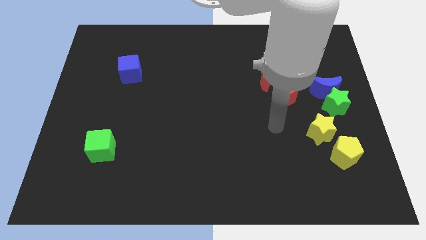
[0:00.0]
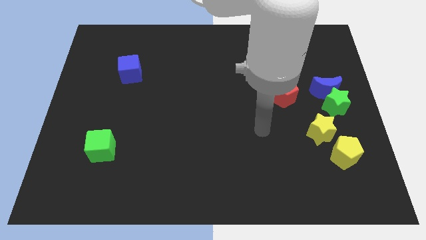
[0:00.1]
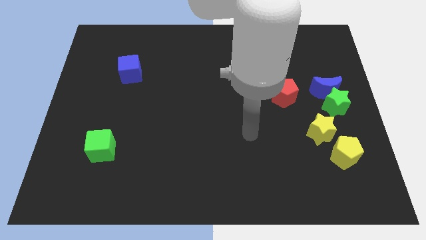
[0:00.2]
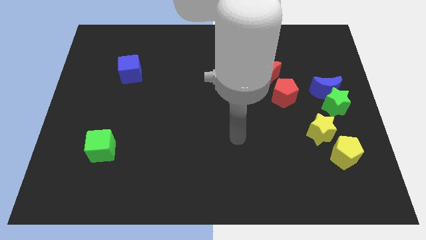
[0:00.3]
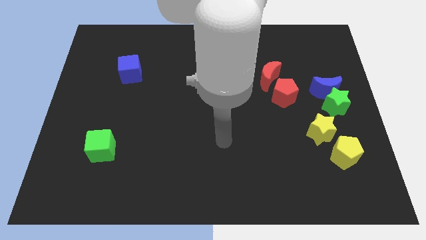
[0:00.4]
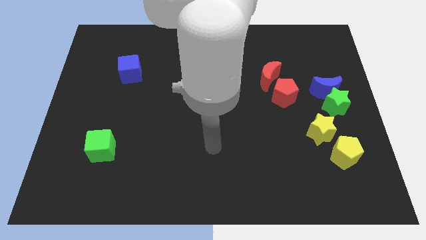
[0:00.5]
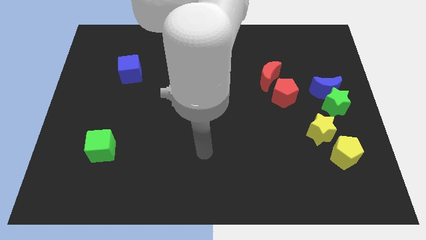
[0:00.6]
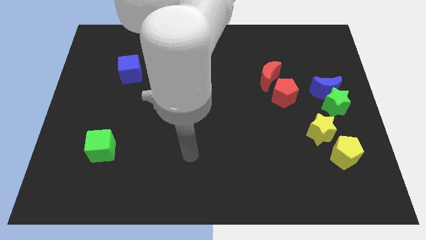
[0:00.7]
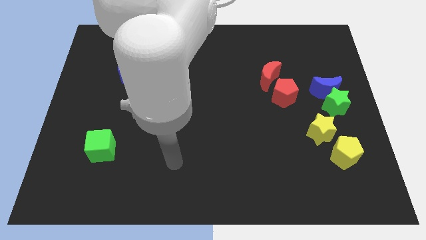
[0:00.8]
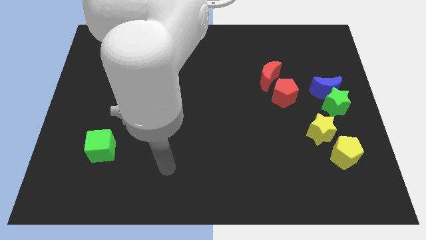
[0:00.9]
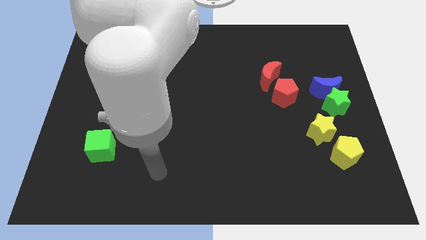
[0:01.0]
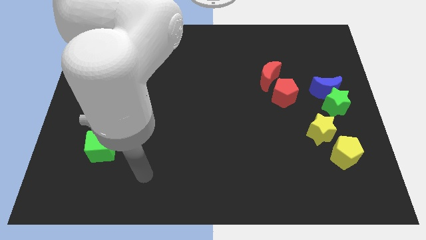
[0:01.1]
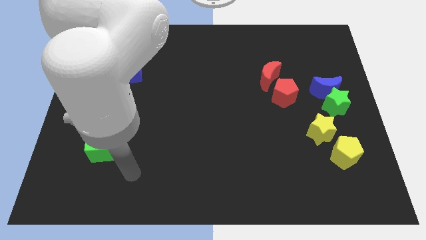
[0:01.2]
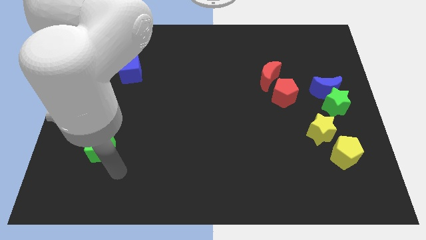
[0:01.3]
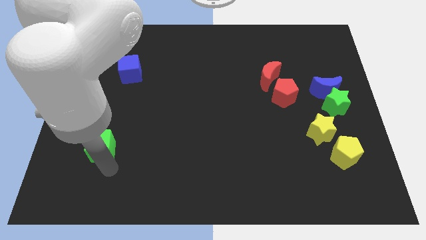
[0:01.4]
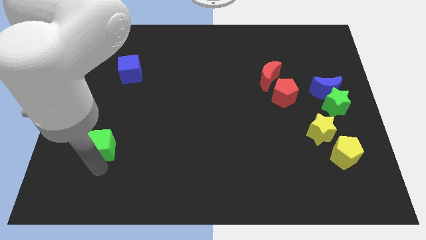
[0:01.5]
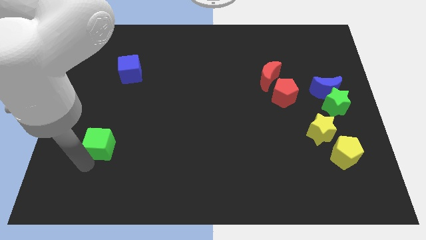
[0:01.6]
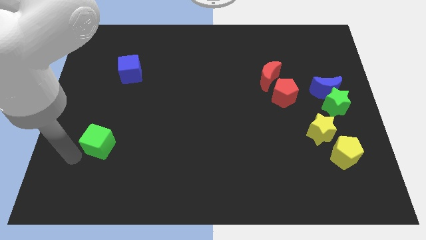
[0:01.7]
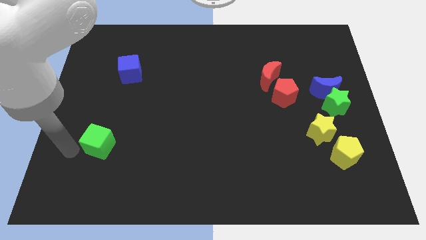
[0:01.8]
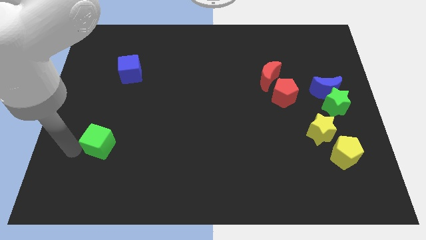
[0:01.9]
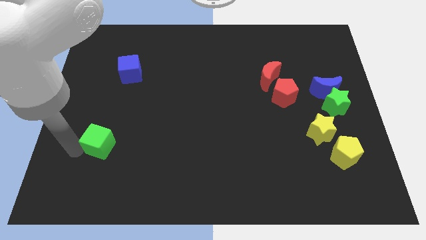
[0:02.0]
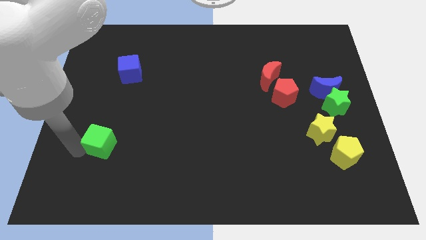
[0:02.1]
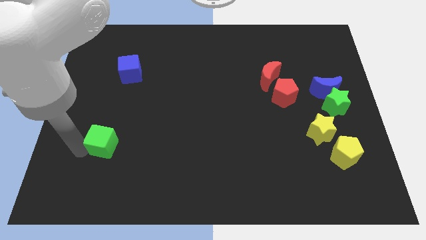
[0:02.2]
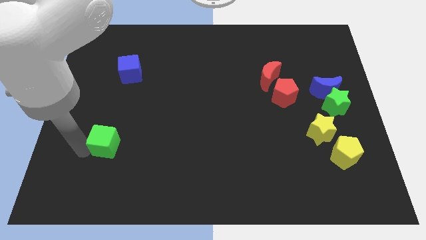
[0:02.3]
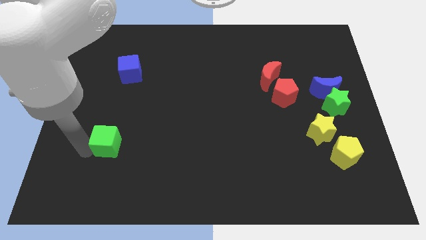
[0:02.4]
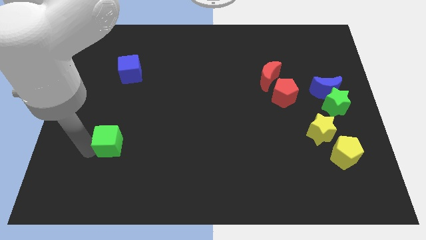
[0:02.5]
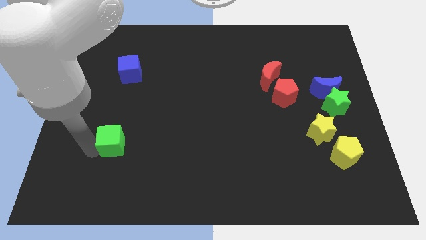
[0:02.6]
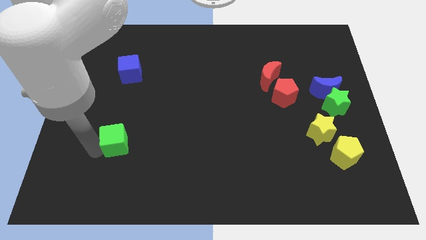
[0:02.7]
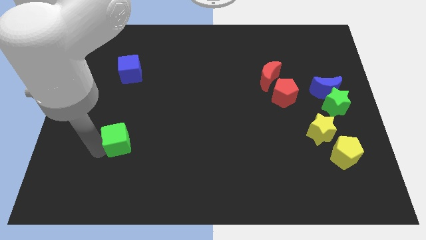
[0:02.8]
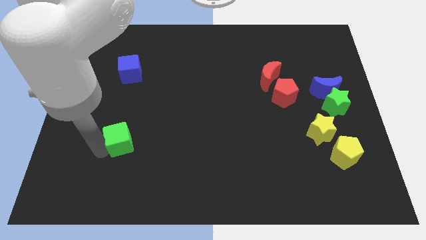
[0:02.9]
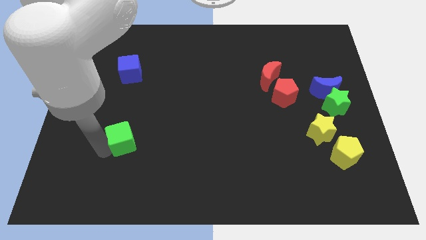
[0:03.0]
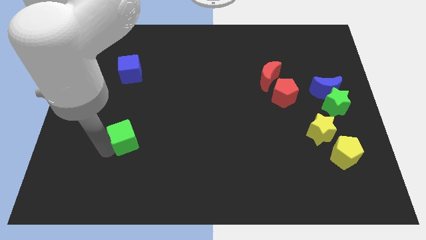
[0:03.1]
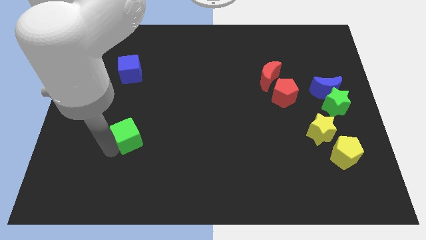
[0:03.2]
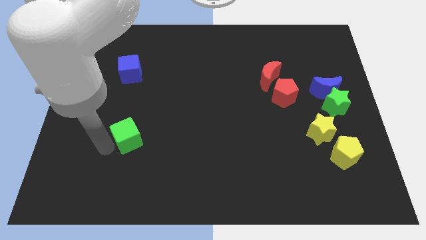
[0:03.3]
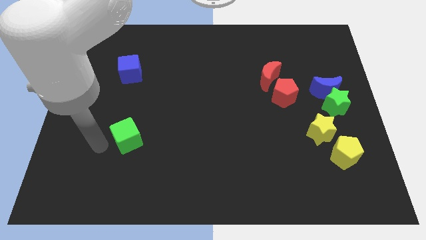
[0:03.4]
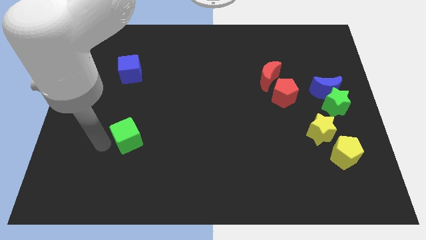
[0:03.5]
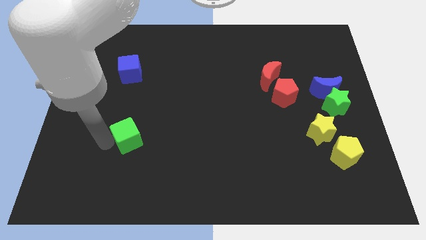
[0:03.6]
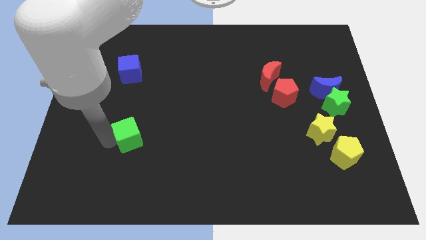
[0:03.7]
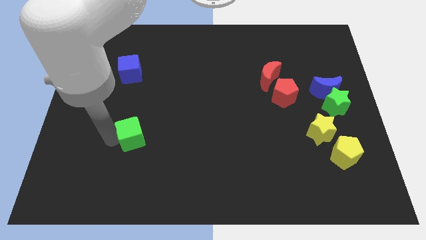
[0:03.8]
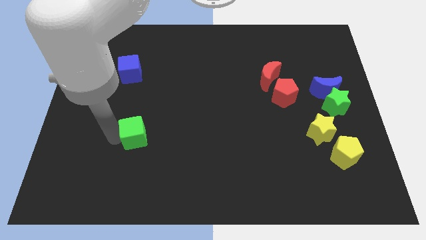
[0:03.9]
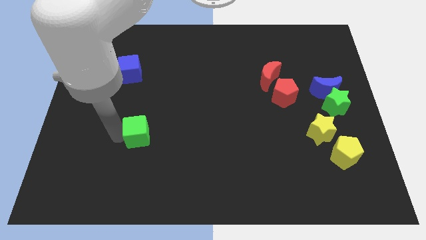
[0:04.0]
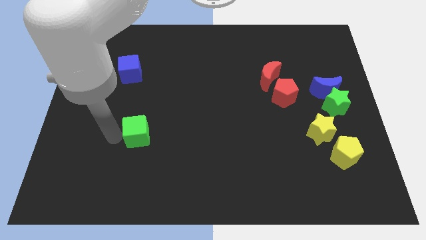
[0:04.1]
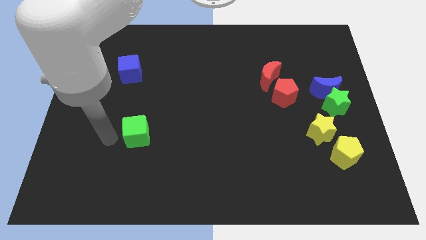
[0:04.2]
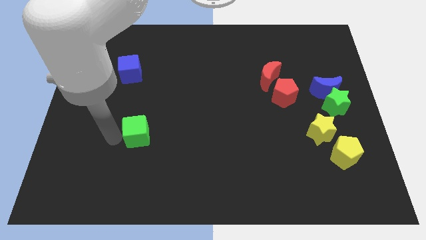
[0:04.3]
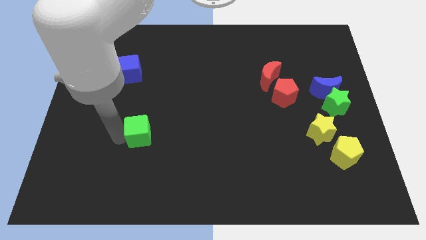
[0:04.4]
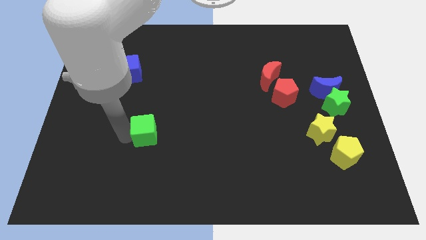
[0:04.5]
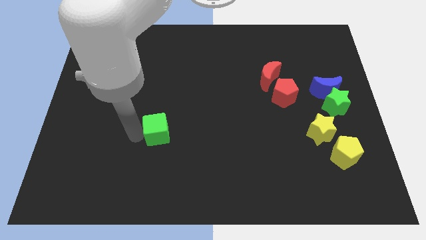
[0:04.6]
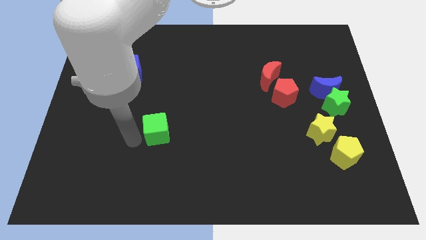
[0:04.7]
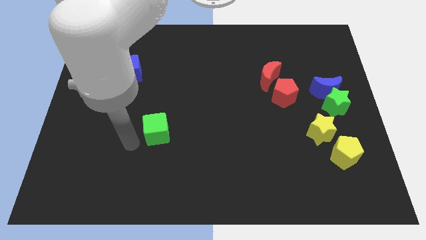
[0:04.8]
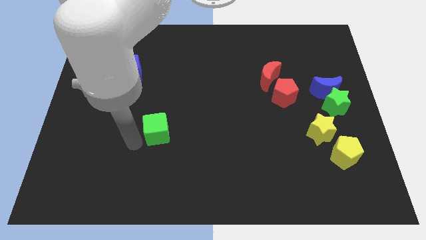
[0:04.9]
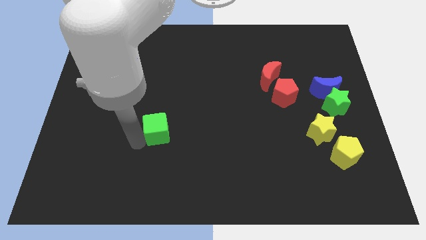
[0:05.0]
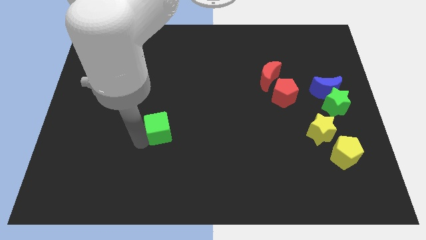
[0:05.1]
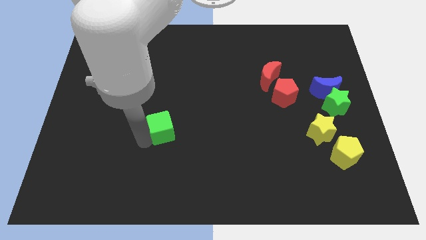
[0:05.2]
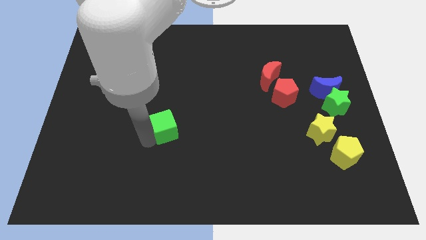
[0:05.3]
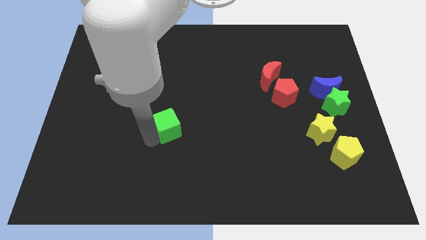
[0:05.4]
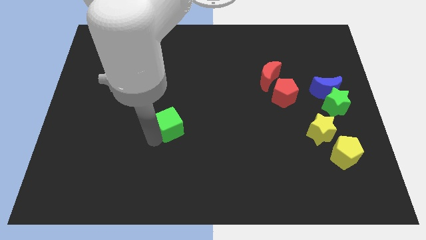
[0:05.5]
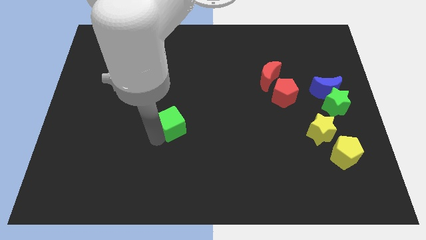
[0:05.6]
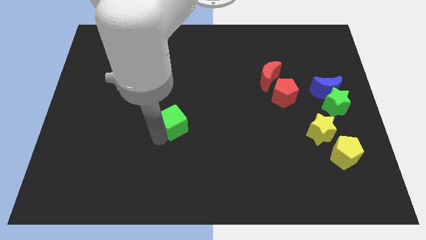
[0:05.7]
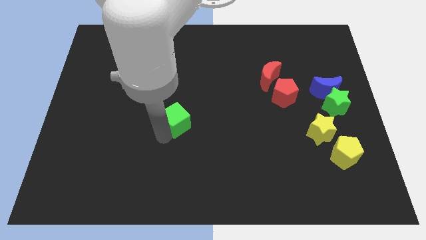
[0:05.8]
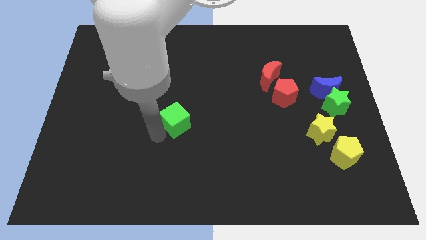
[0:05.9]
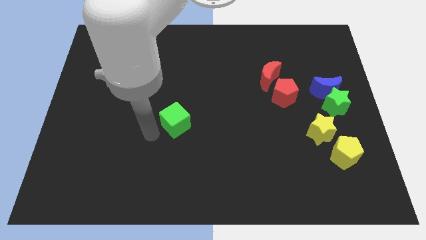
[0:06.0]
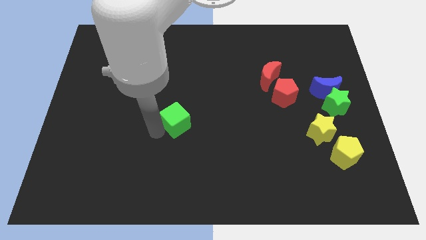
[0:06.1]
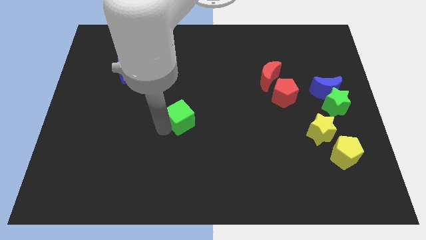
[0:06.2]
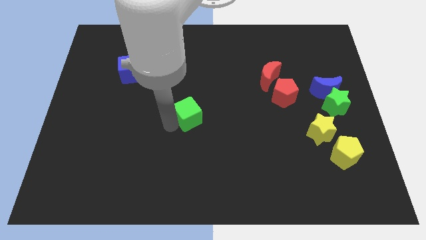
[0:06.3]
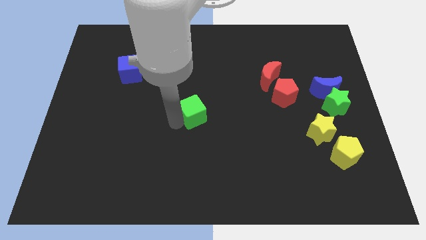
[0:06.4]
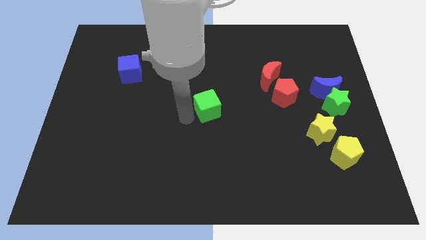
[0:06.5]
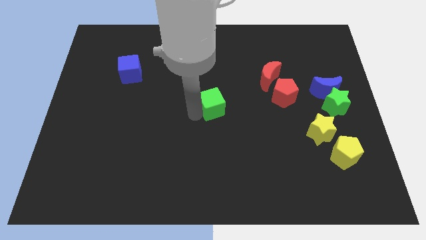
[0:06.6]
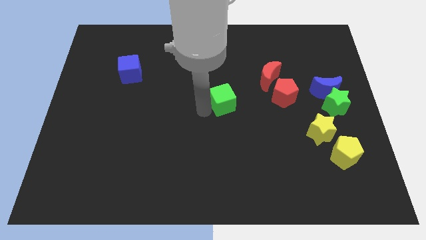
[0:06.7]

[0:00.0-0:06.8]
slide the green cube to the left side of the red pentagon
